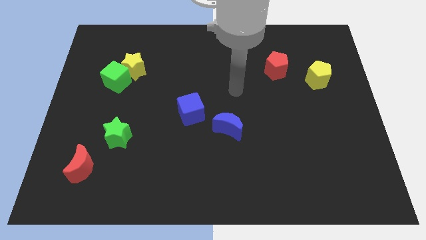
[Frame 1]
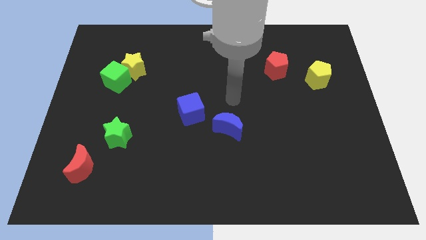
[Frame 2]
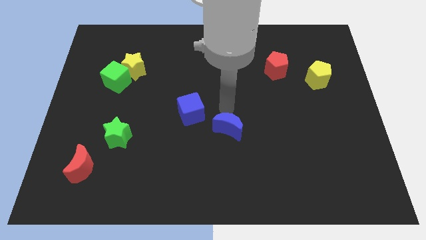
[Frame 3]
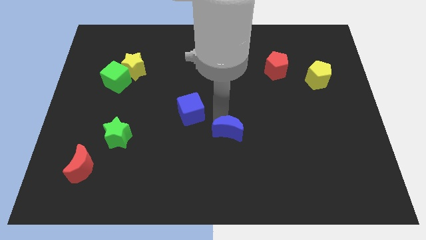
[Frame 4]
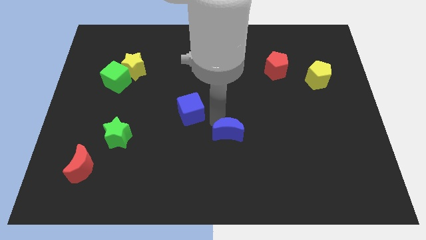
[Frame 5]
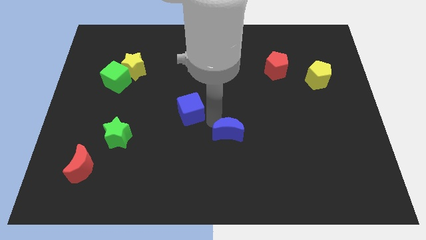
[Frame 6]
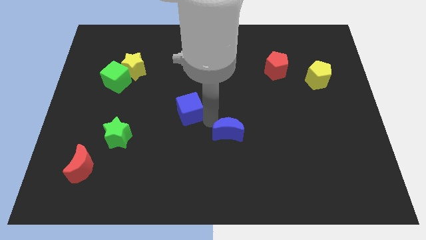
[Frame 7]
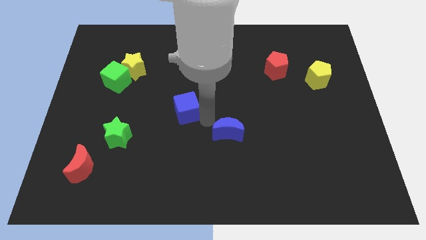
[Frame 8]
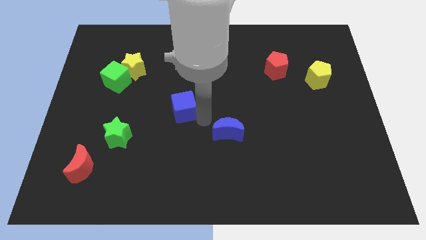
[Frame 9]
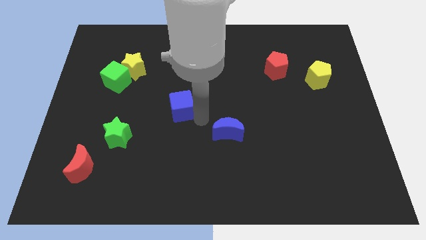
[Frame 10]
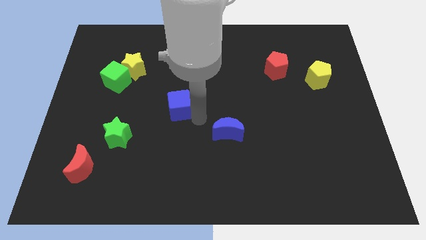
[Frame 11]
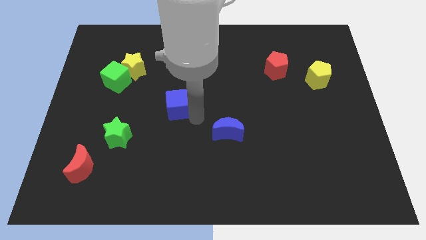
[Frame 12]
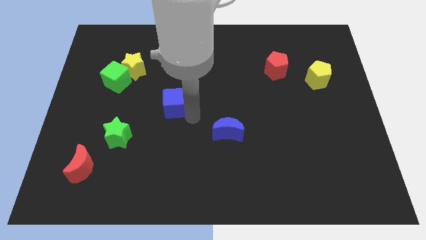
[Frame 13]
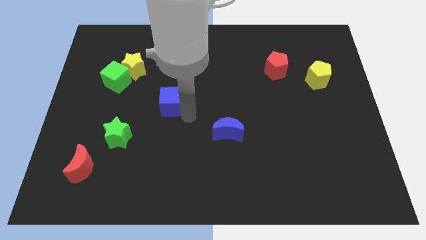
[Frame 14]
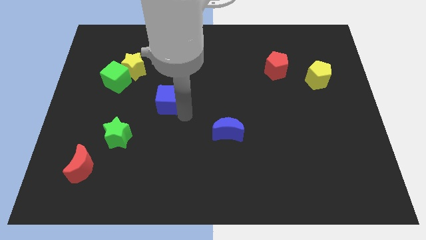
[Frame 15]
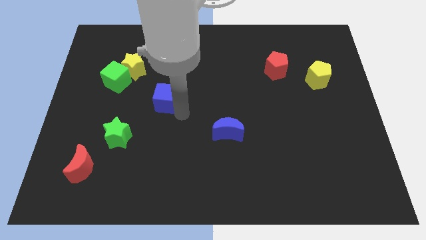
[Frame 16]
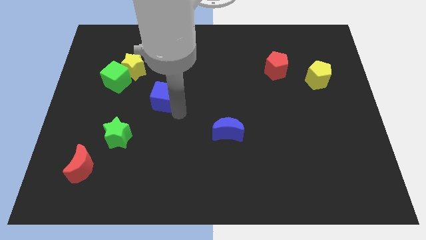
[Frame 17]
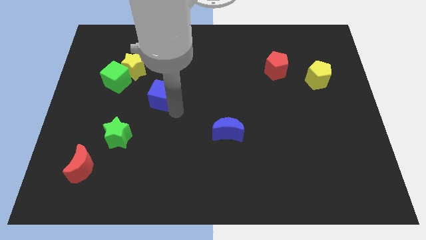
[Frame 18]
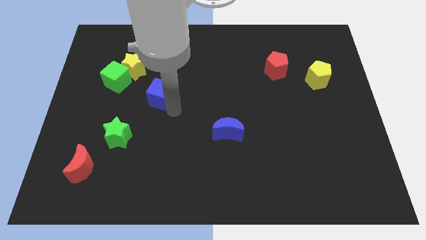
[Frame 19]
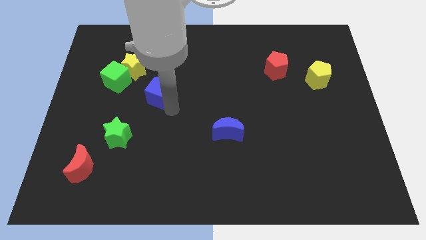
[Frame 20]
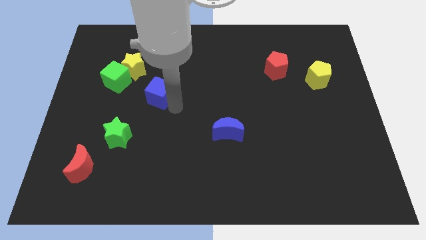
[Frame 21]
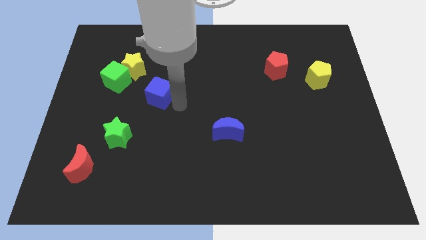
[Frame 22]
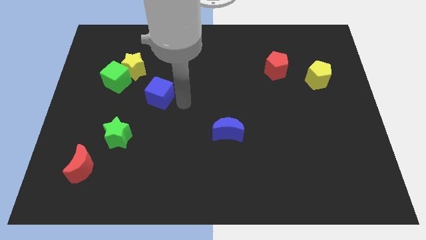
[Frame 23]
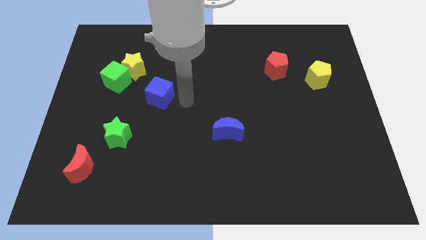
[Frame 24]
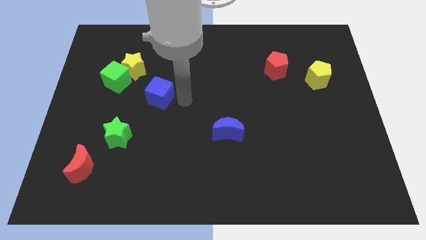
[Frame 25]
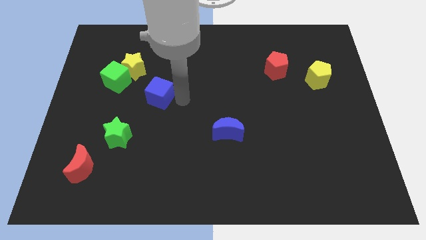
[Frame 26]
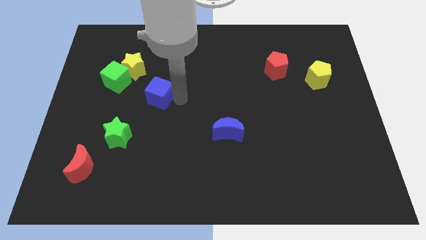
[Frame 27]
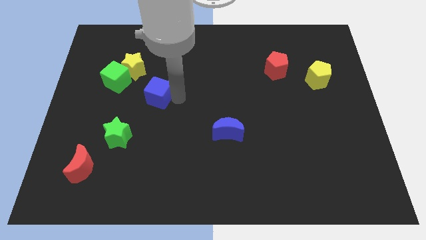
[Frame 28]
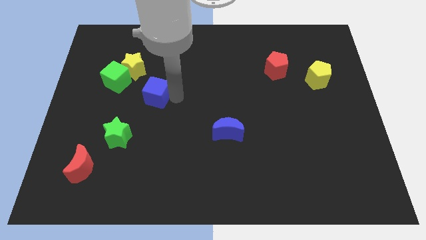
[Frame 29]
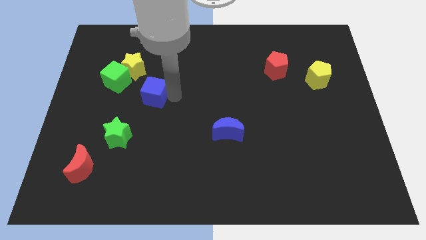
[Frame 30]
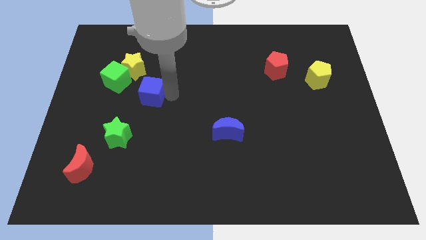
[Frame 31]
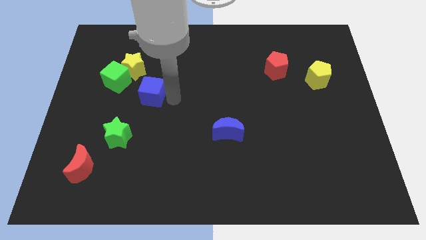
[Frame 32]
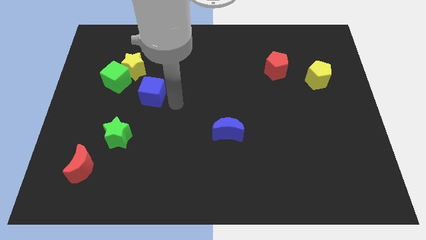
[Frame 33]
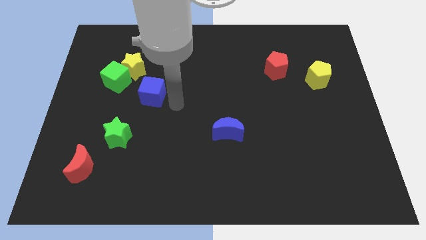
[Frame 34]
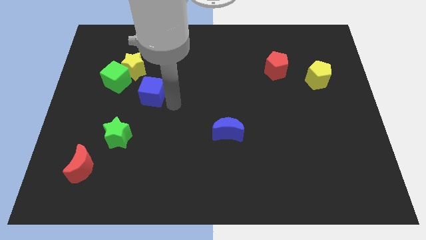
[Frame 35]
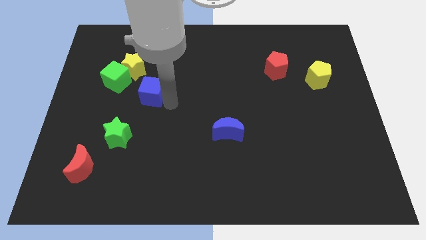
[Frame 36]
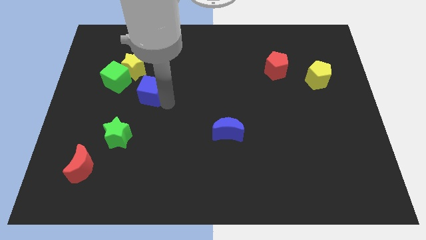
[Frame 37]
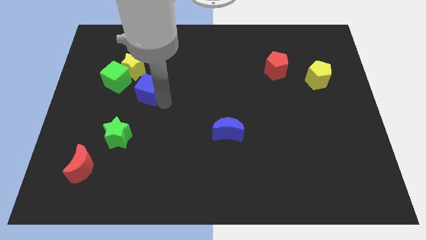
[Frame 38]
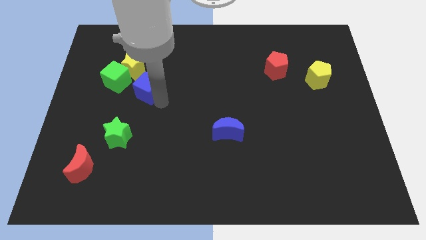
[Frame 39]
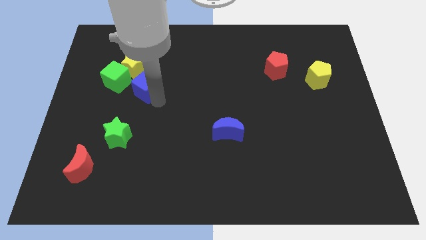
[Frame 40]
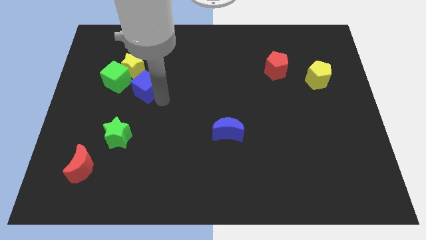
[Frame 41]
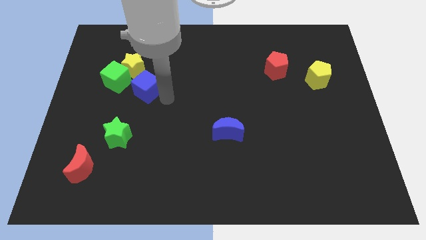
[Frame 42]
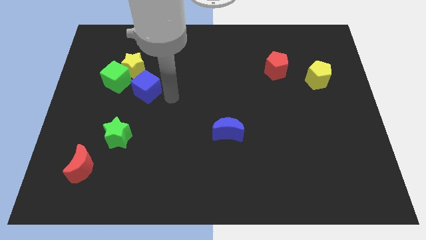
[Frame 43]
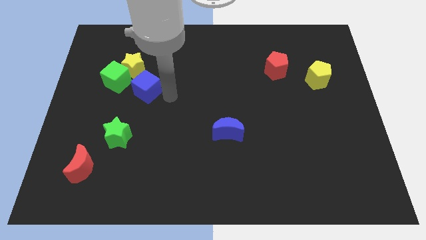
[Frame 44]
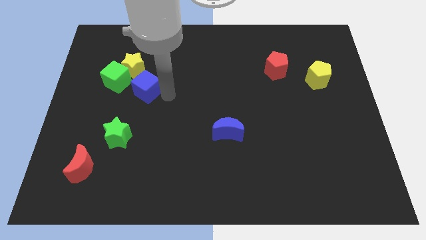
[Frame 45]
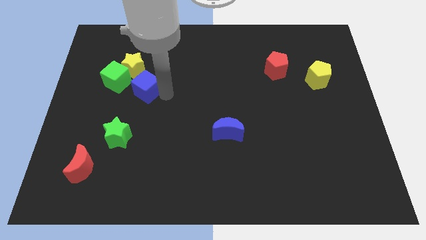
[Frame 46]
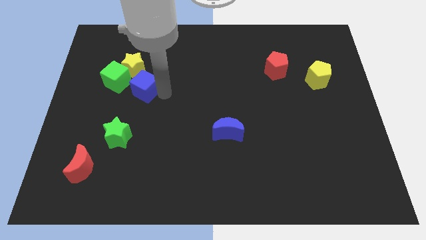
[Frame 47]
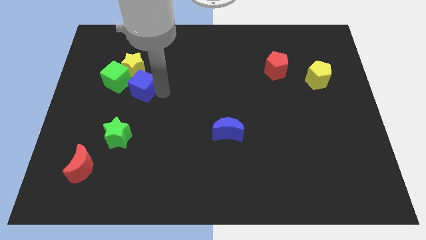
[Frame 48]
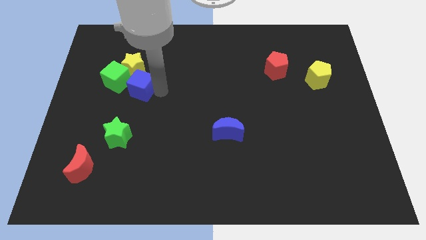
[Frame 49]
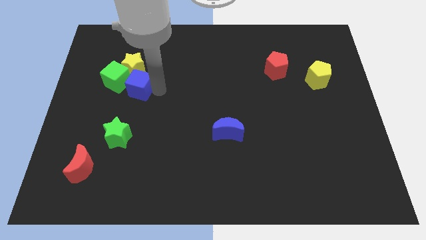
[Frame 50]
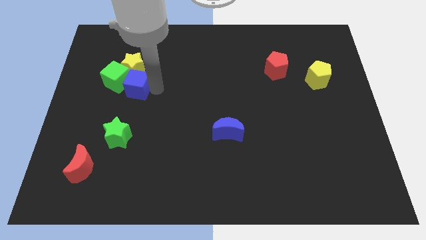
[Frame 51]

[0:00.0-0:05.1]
slide the blue cube to the green cube

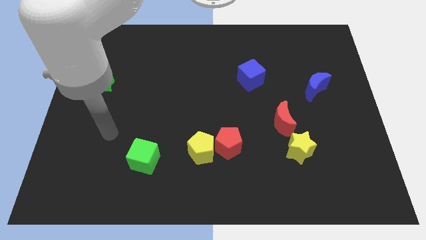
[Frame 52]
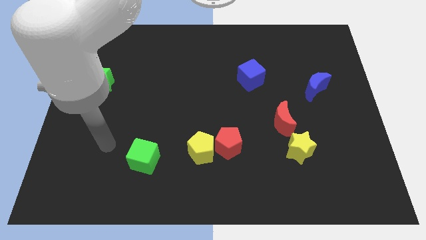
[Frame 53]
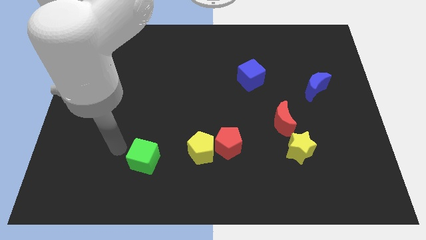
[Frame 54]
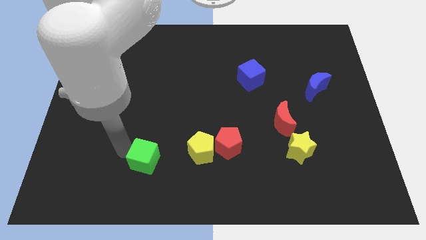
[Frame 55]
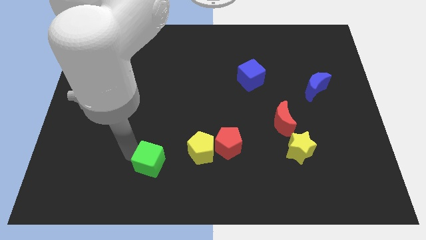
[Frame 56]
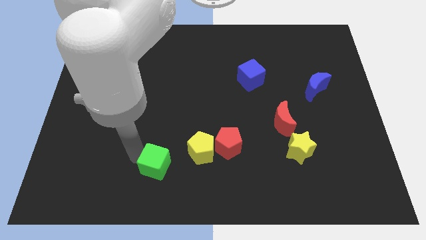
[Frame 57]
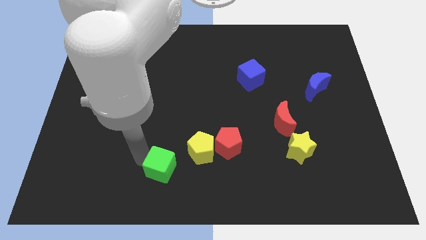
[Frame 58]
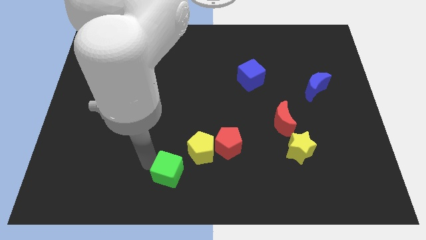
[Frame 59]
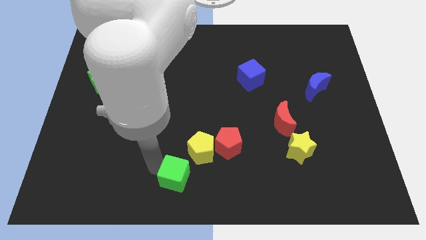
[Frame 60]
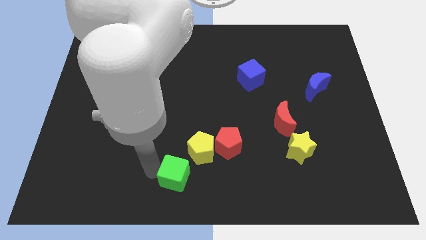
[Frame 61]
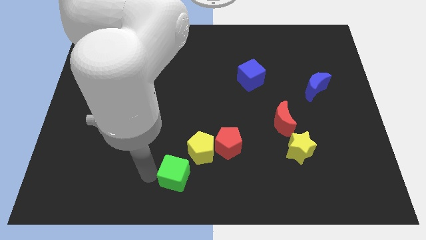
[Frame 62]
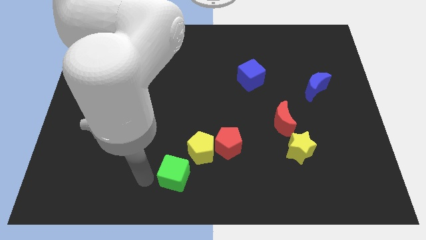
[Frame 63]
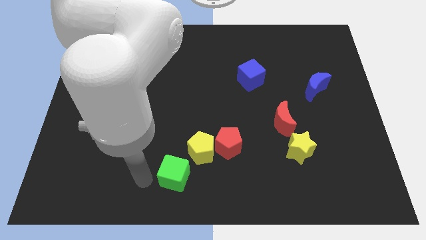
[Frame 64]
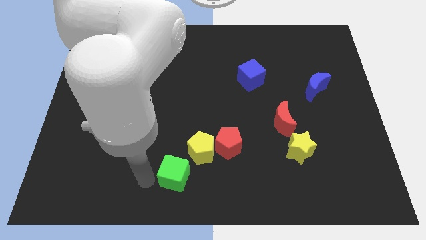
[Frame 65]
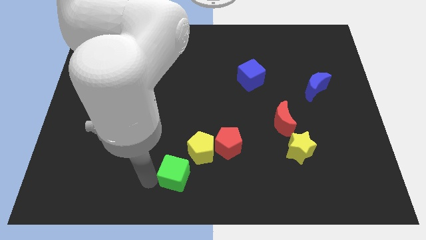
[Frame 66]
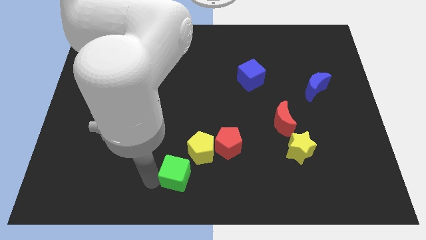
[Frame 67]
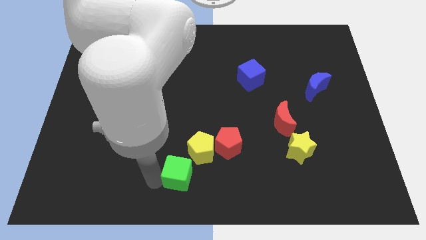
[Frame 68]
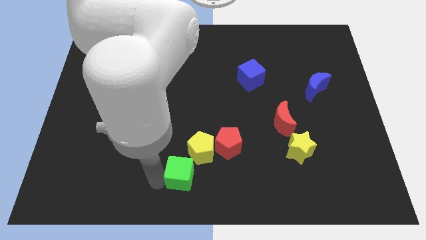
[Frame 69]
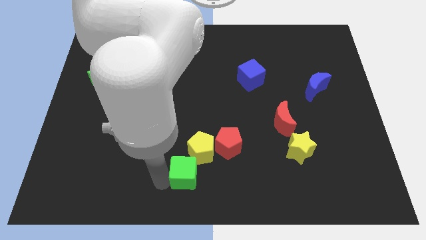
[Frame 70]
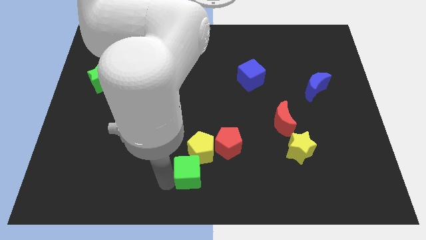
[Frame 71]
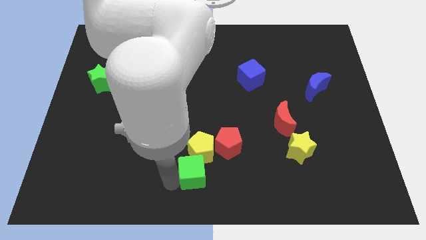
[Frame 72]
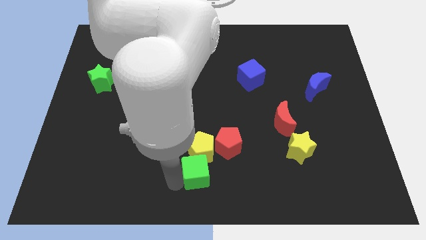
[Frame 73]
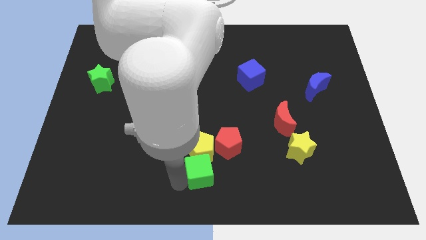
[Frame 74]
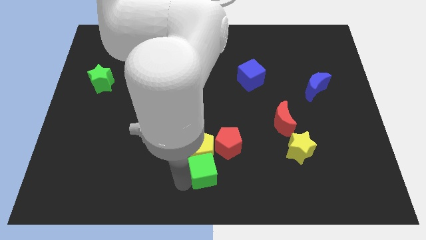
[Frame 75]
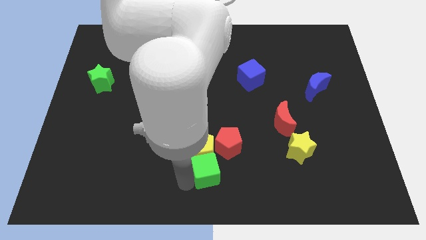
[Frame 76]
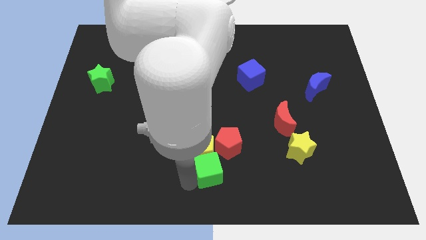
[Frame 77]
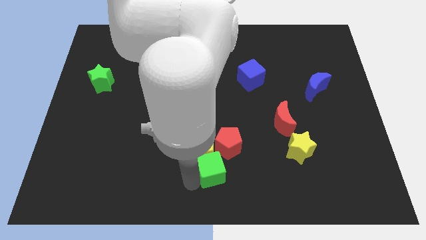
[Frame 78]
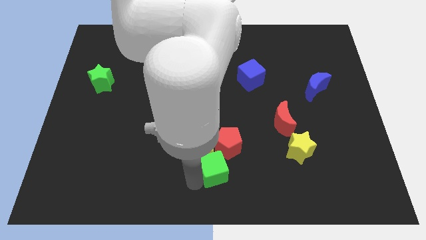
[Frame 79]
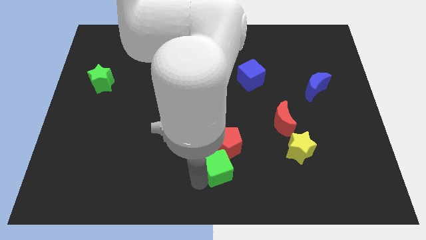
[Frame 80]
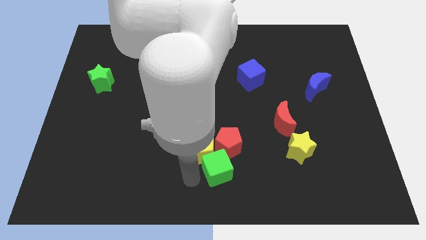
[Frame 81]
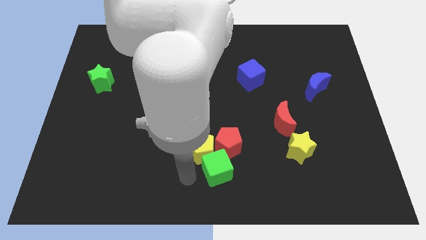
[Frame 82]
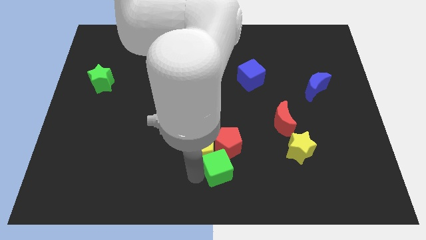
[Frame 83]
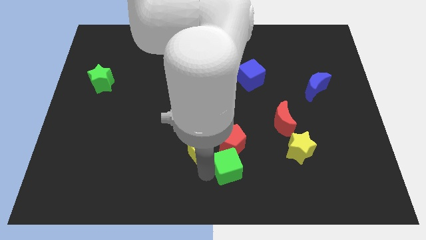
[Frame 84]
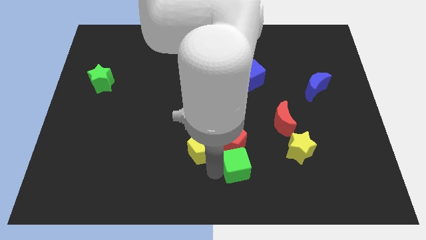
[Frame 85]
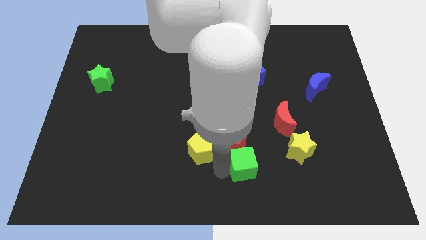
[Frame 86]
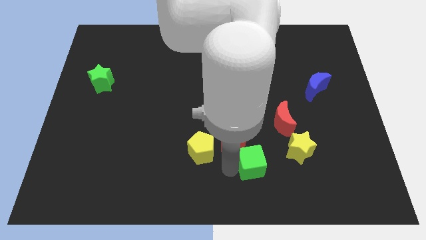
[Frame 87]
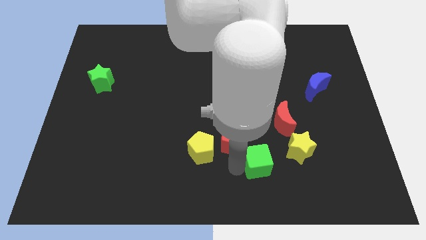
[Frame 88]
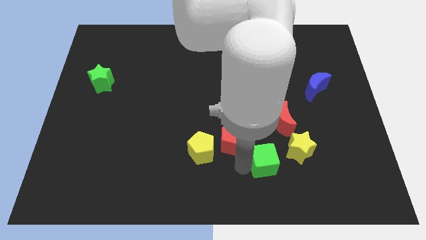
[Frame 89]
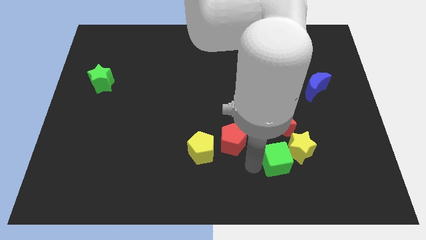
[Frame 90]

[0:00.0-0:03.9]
push the green cube next to the yellow star
